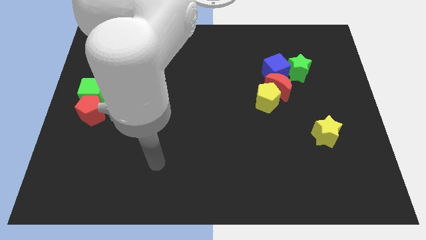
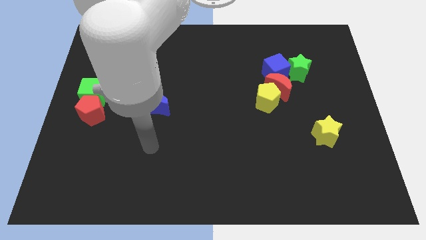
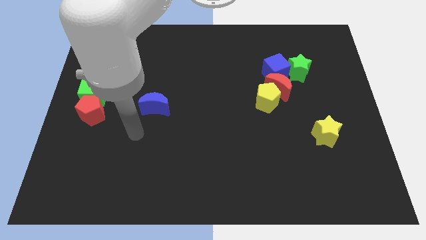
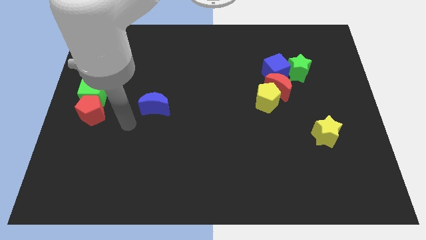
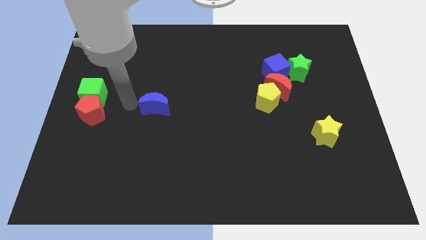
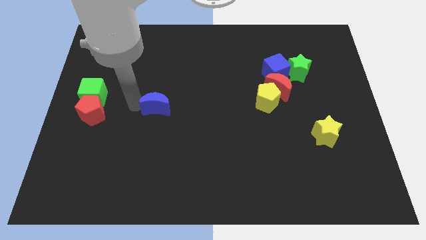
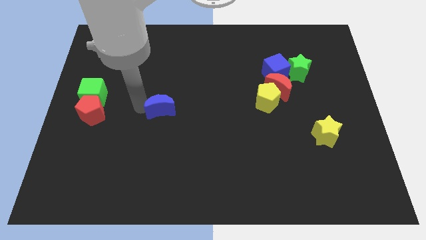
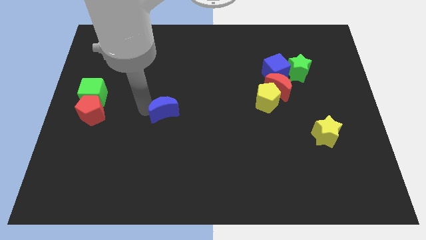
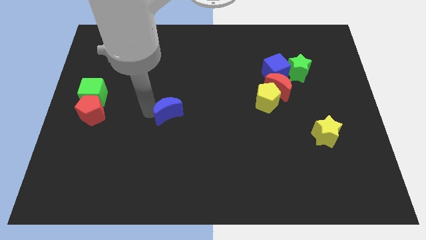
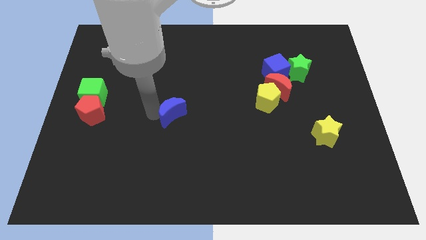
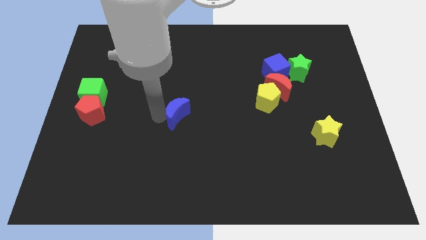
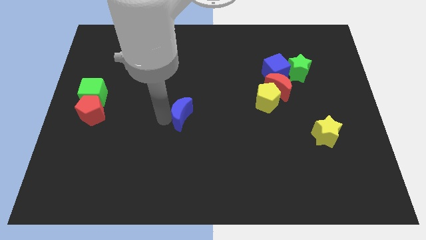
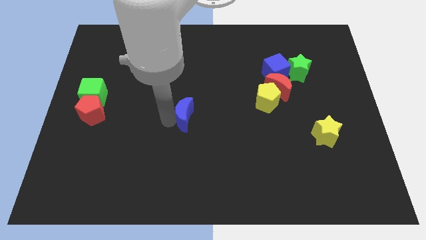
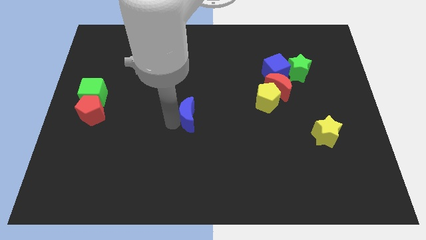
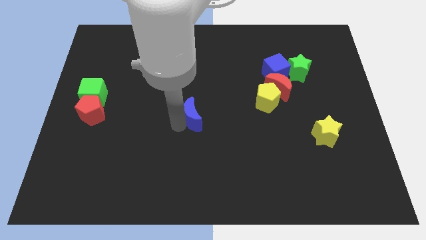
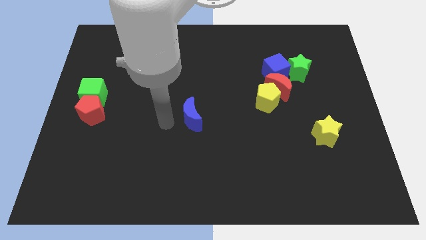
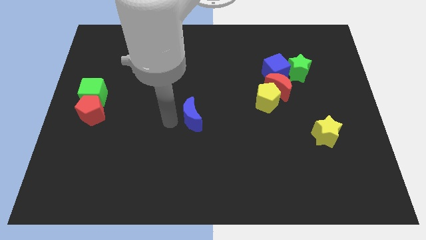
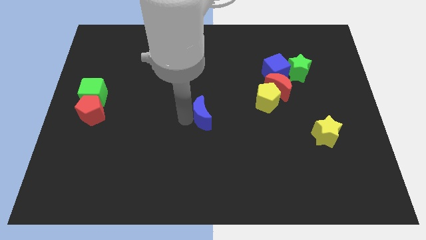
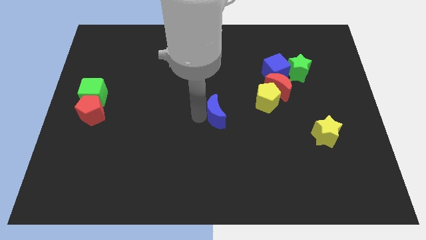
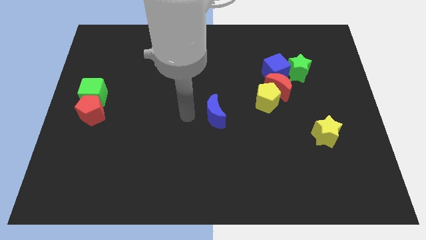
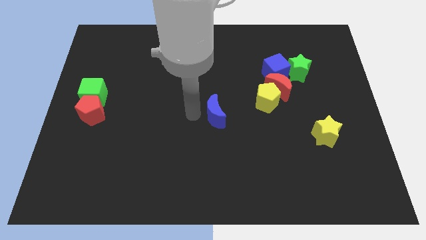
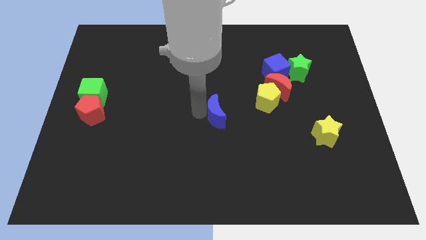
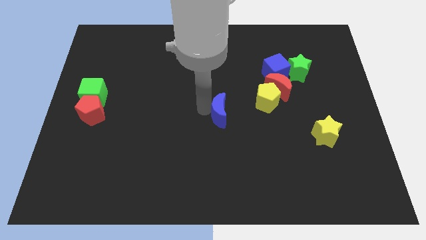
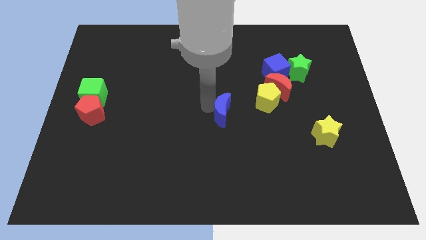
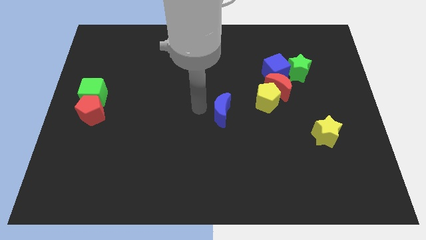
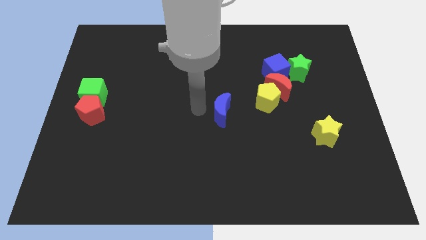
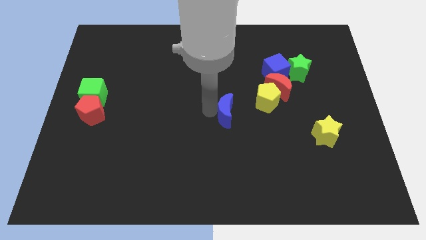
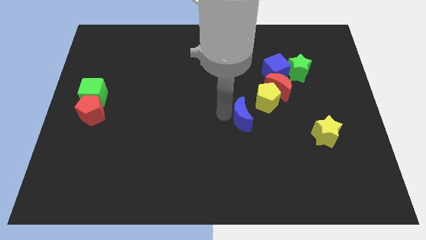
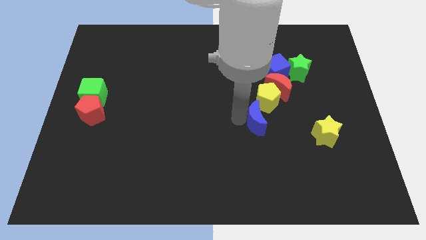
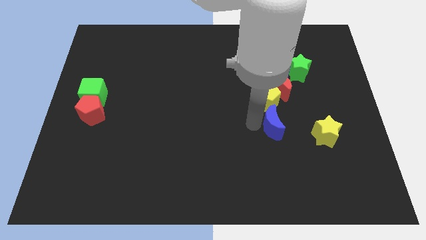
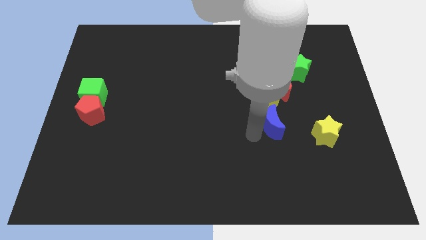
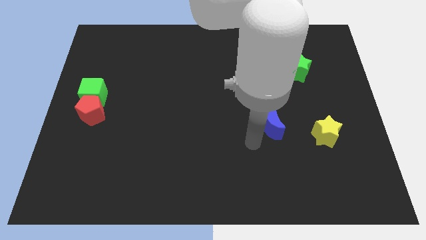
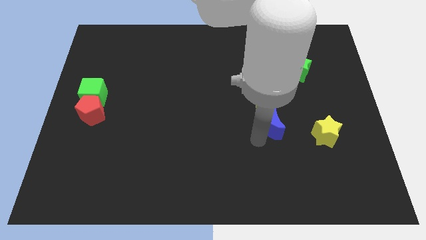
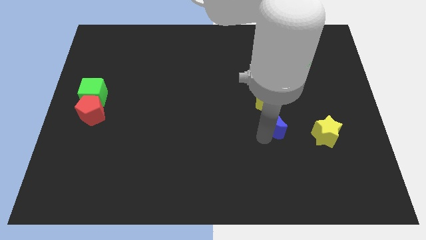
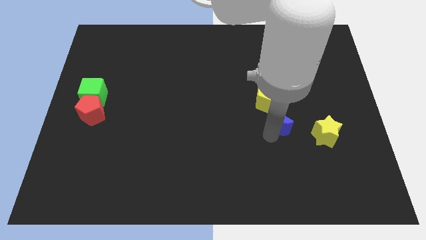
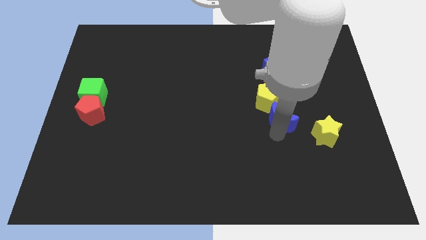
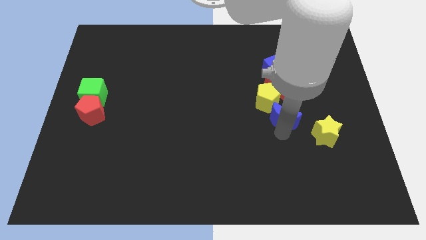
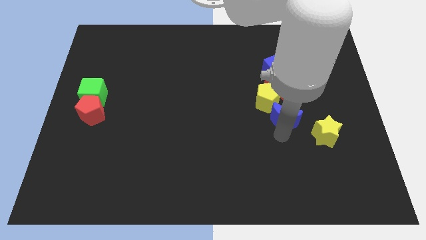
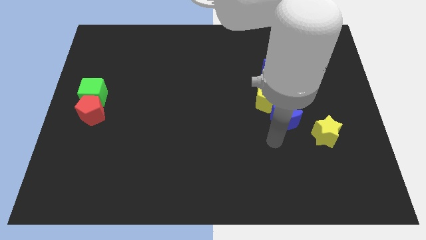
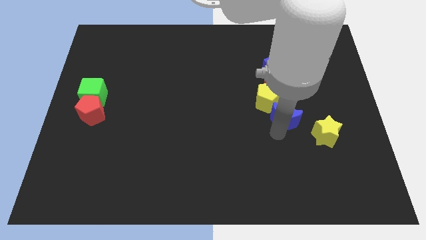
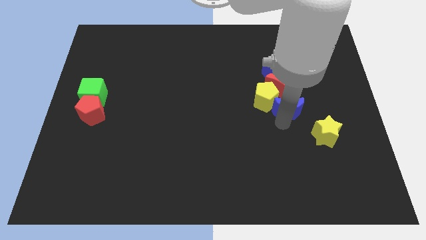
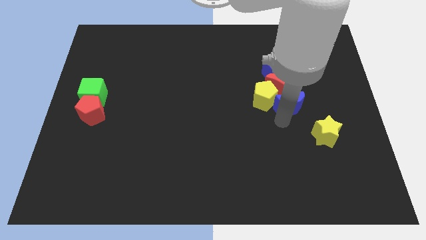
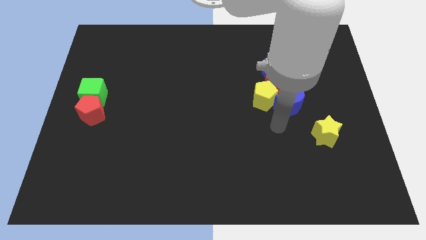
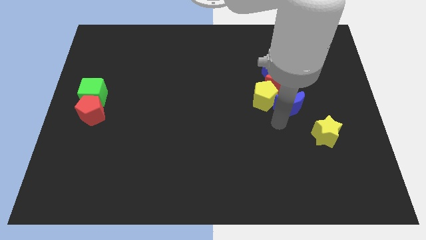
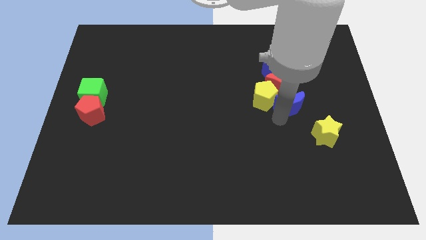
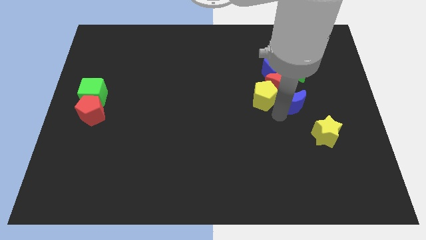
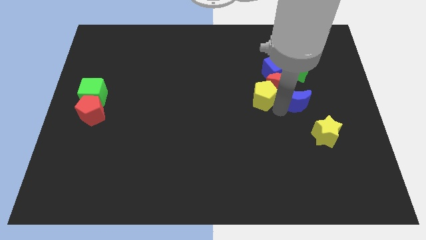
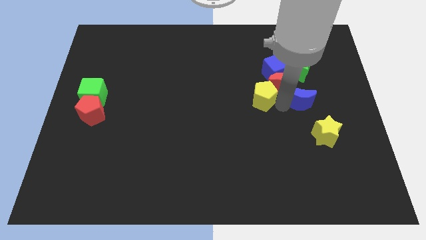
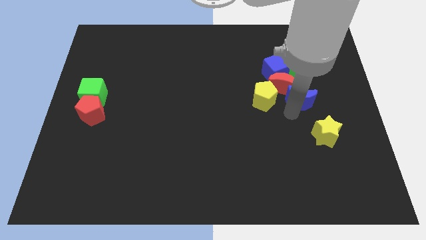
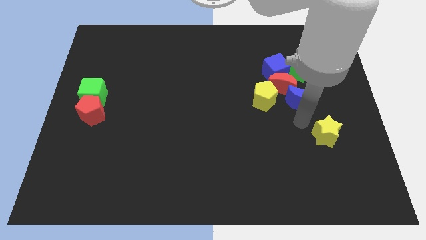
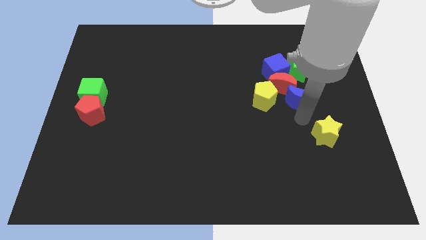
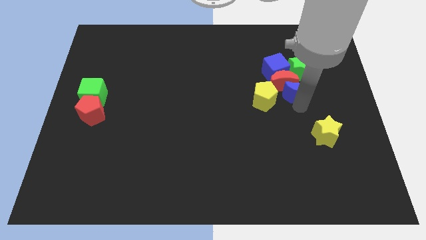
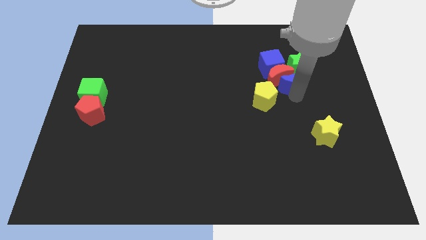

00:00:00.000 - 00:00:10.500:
put the blue moon close to the green star

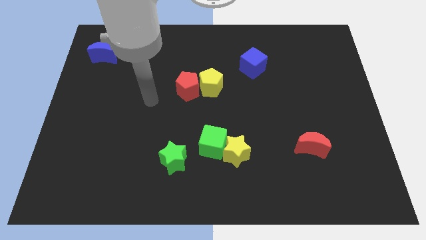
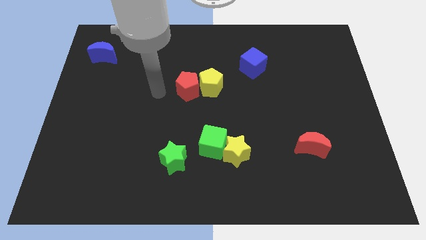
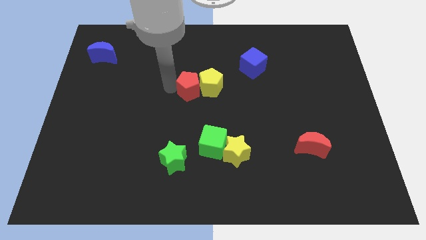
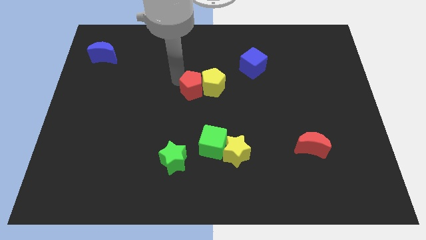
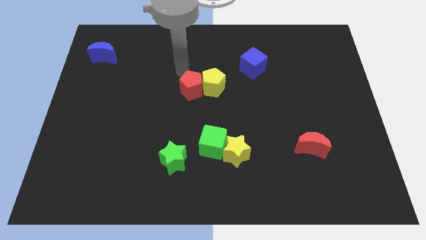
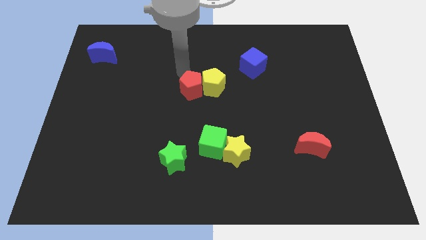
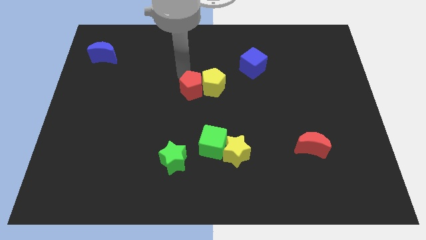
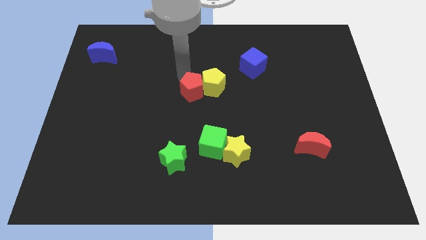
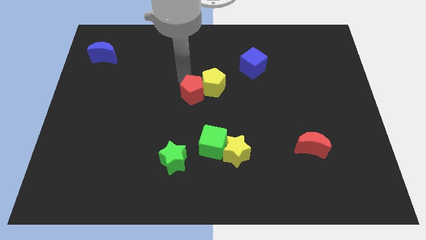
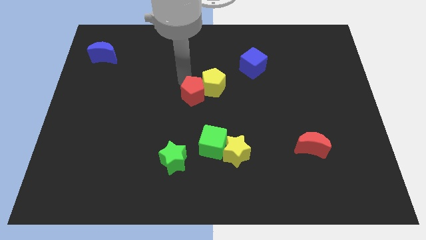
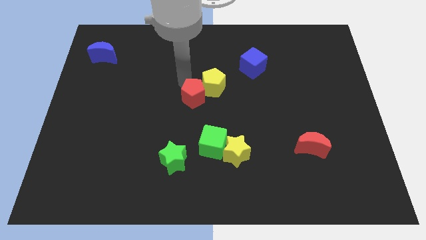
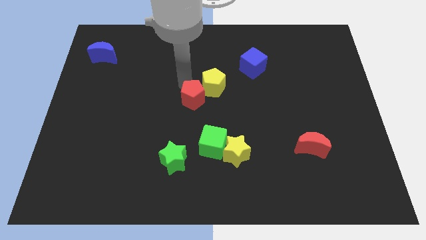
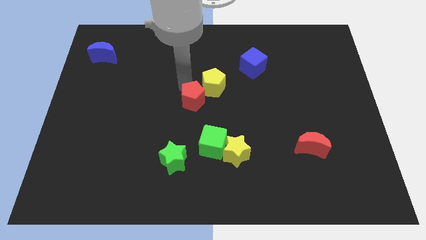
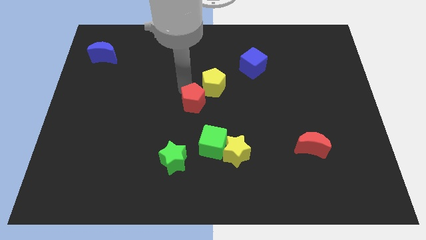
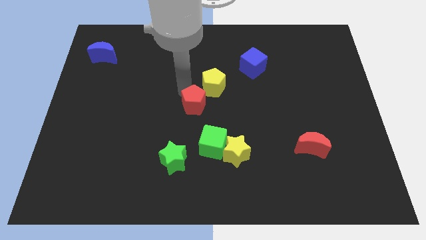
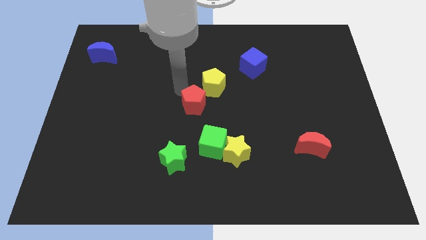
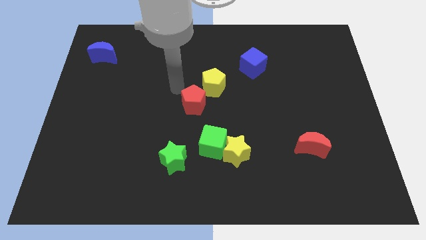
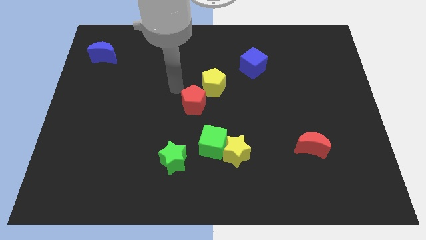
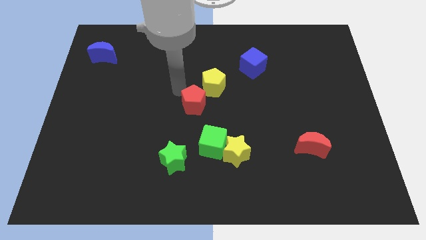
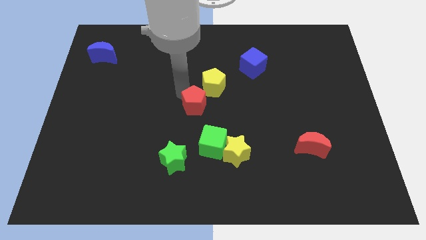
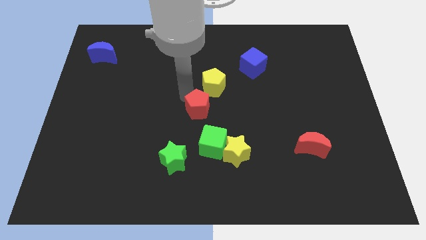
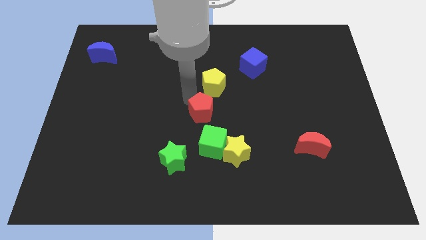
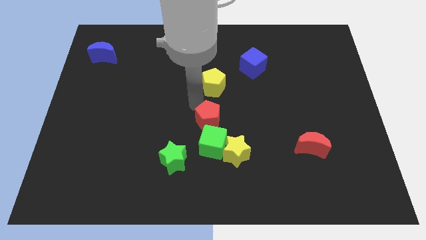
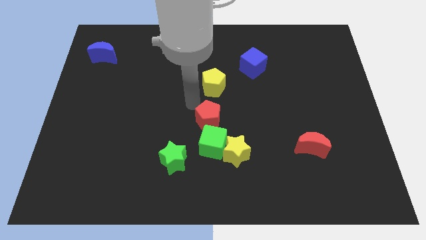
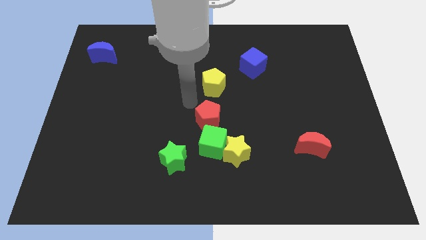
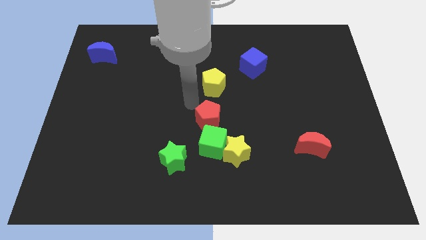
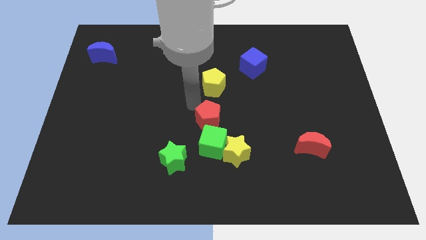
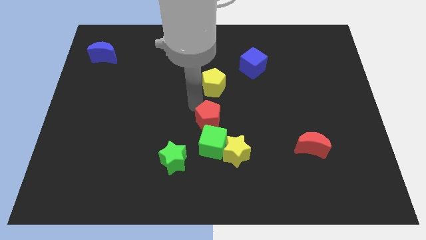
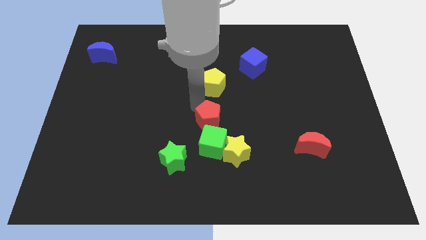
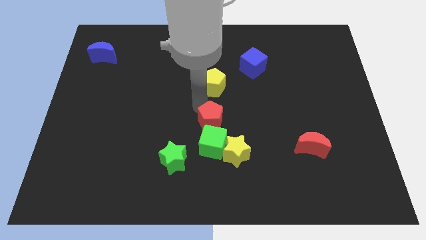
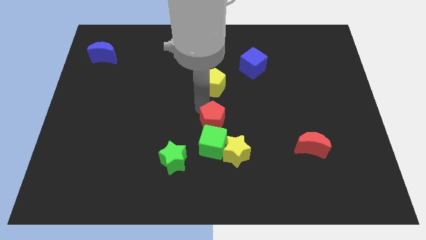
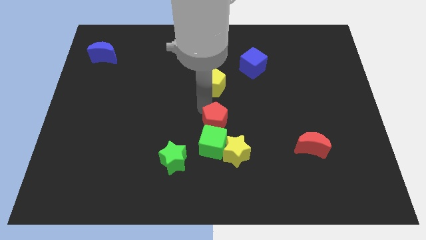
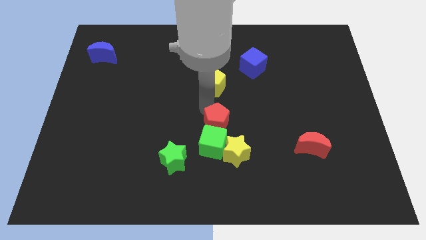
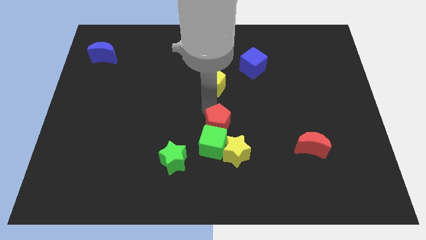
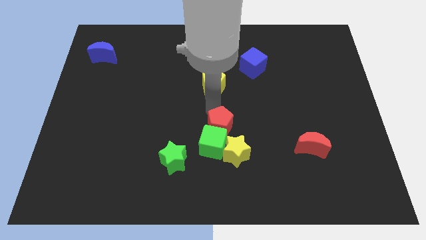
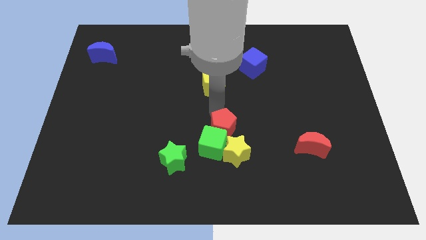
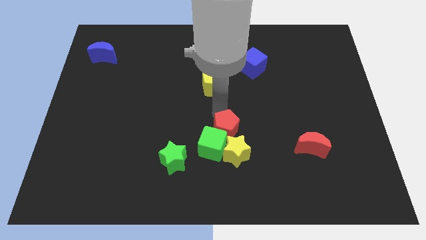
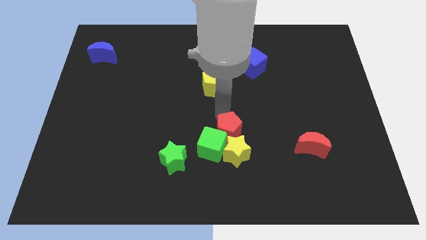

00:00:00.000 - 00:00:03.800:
slide the red pentagon towards the yellow star
